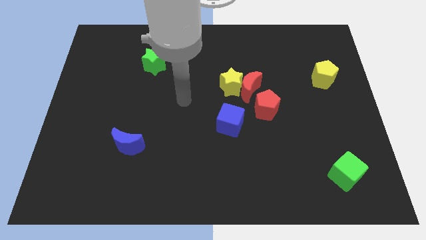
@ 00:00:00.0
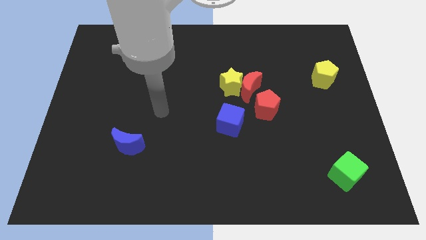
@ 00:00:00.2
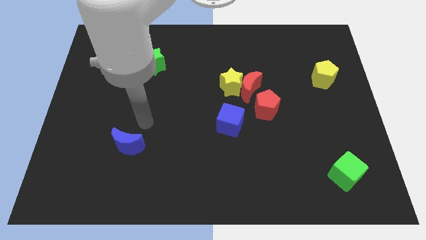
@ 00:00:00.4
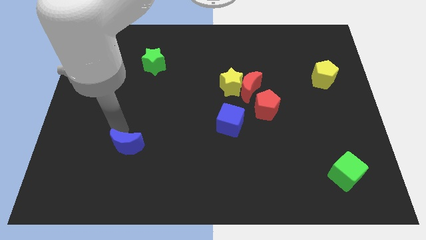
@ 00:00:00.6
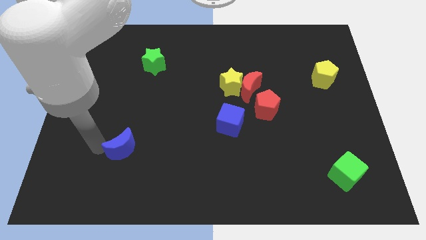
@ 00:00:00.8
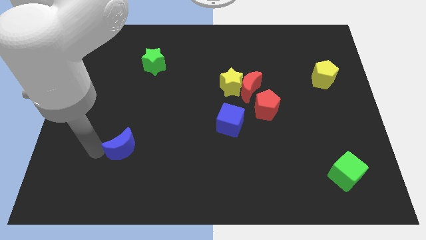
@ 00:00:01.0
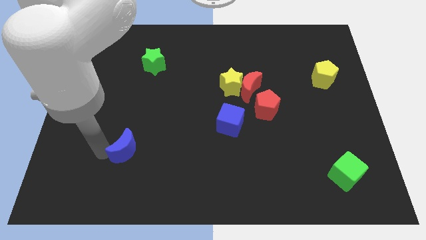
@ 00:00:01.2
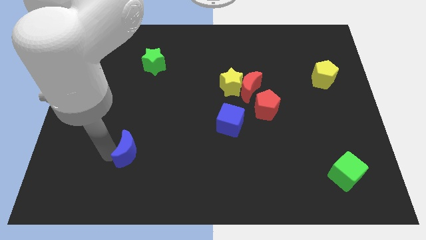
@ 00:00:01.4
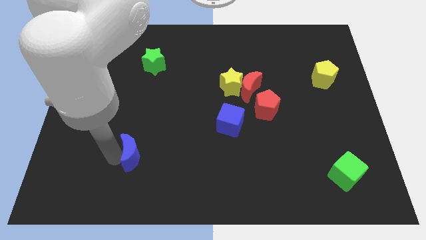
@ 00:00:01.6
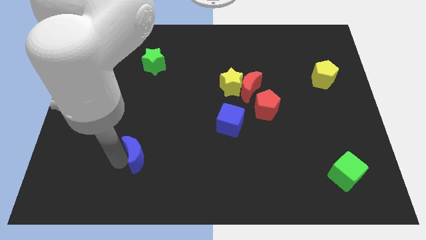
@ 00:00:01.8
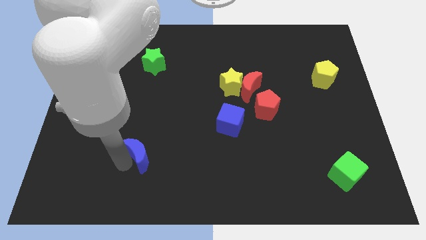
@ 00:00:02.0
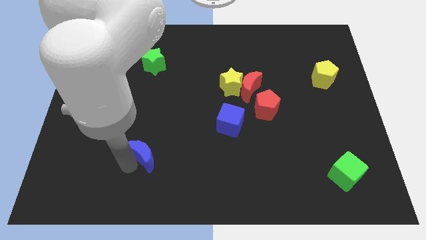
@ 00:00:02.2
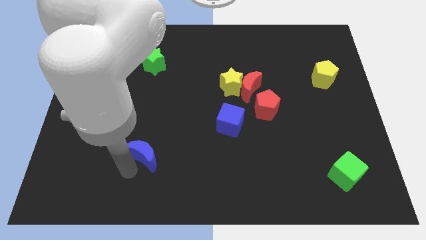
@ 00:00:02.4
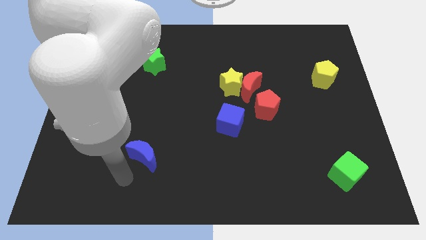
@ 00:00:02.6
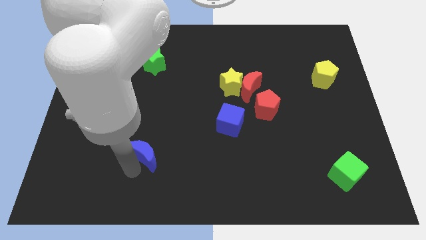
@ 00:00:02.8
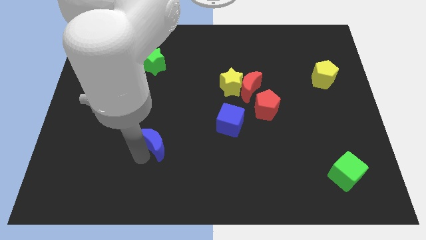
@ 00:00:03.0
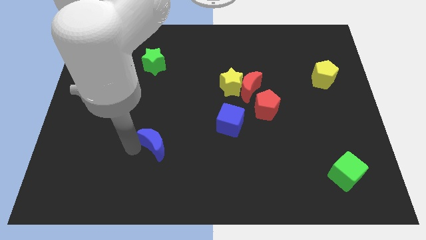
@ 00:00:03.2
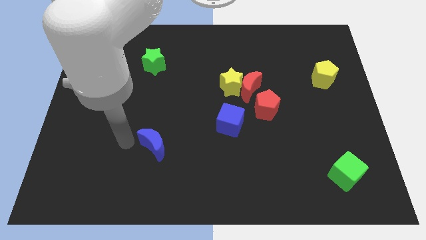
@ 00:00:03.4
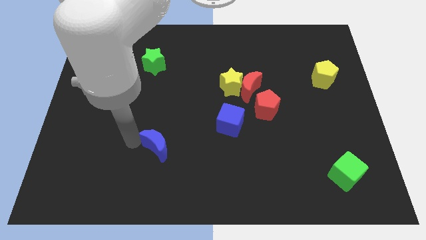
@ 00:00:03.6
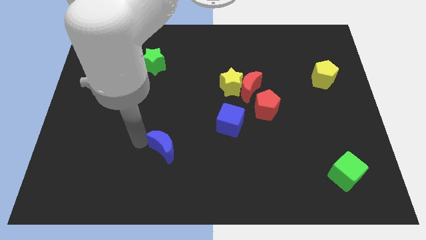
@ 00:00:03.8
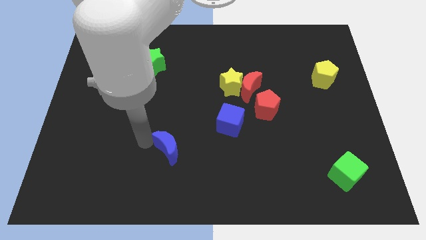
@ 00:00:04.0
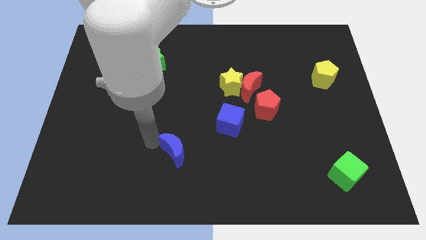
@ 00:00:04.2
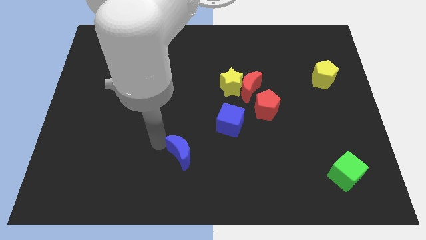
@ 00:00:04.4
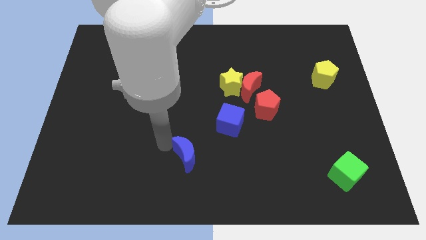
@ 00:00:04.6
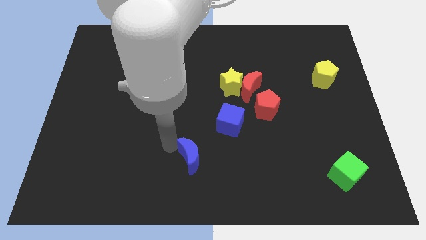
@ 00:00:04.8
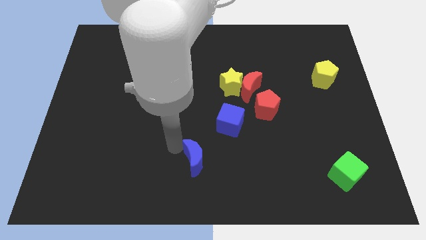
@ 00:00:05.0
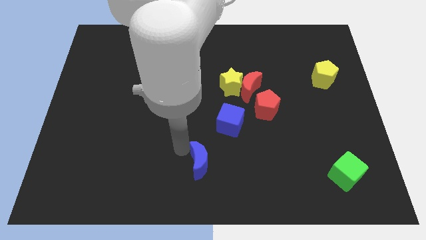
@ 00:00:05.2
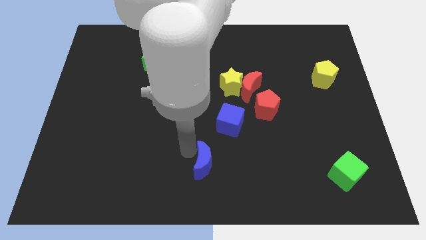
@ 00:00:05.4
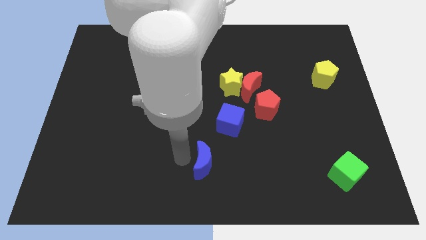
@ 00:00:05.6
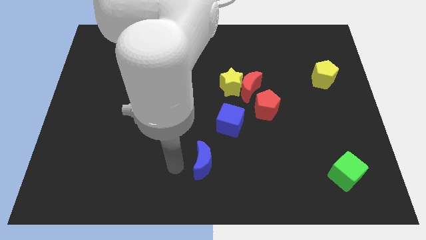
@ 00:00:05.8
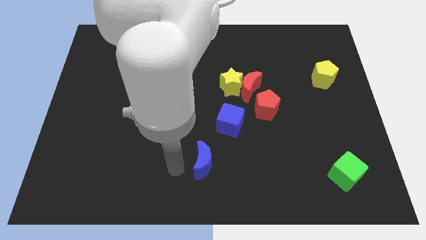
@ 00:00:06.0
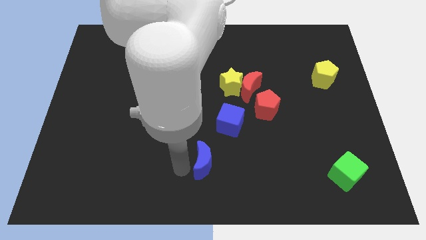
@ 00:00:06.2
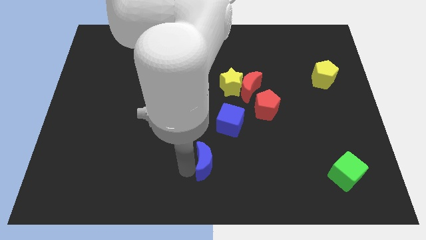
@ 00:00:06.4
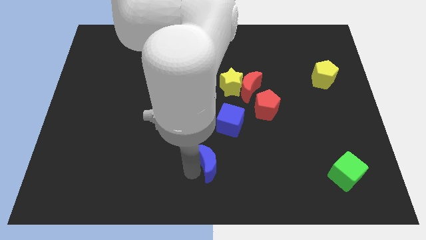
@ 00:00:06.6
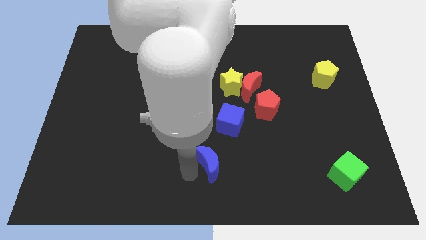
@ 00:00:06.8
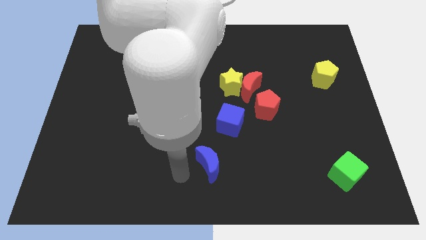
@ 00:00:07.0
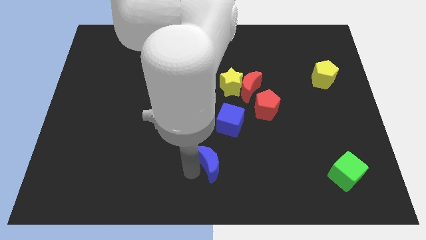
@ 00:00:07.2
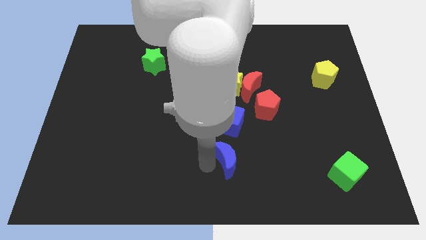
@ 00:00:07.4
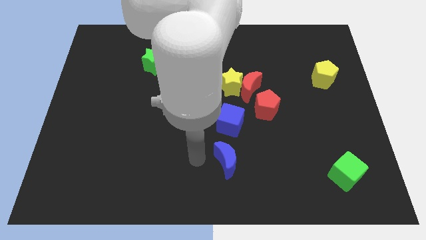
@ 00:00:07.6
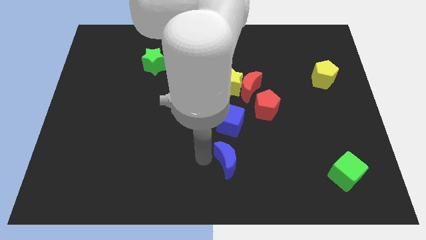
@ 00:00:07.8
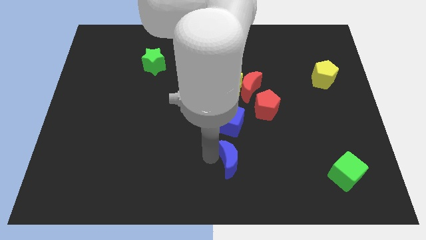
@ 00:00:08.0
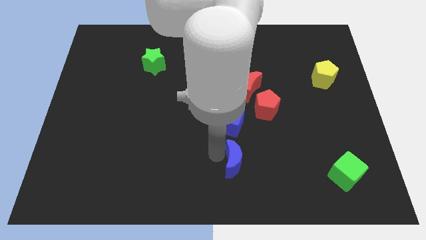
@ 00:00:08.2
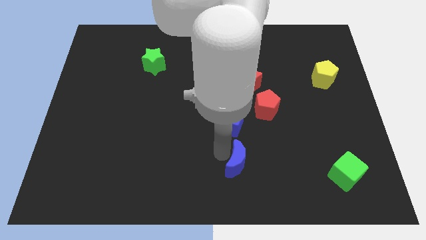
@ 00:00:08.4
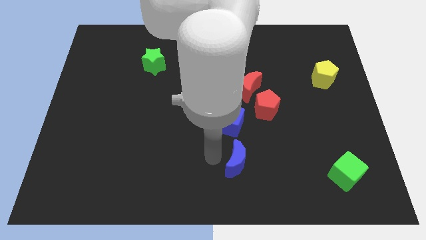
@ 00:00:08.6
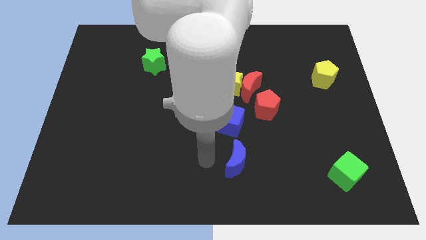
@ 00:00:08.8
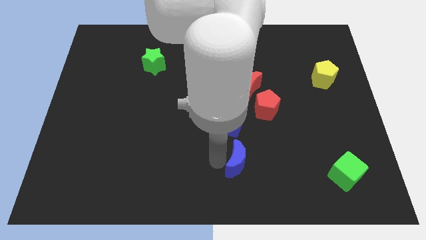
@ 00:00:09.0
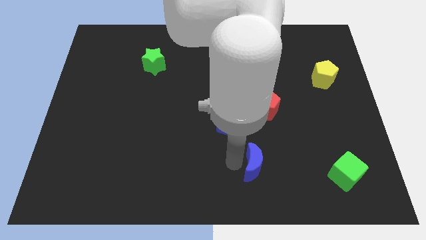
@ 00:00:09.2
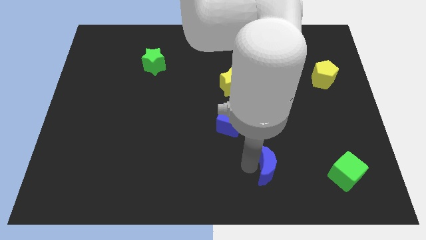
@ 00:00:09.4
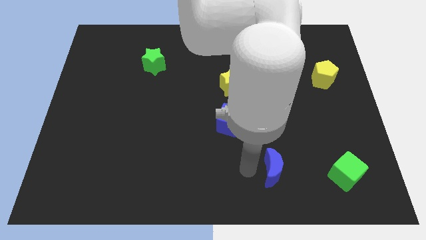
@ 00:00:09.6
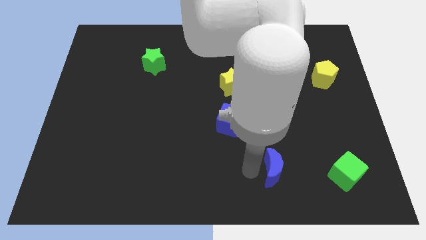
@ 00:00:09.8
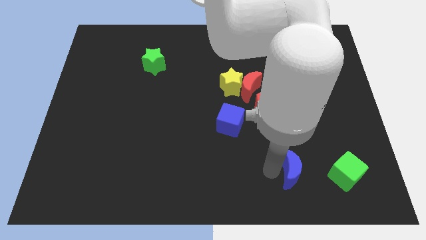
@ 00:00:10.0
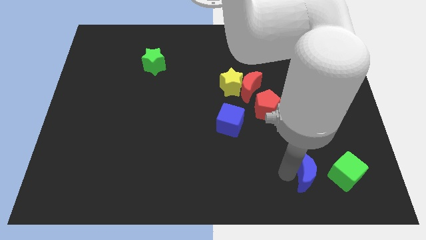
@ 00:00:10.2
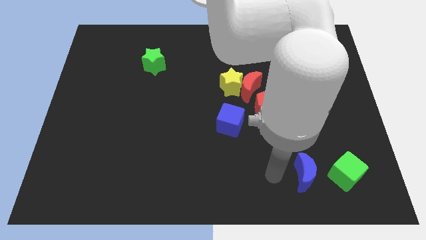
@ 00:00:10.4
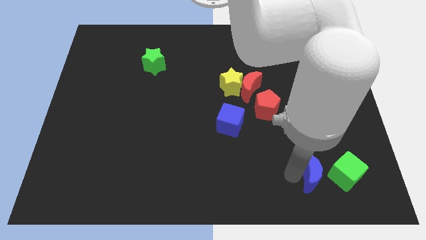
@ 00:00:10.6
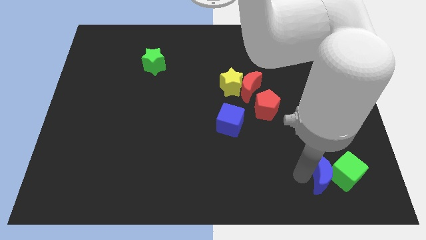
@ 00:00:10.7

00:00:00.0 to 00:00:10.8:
slide the blue moon next to the green cube

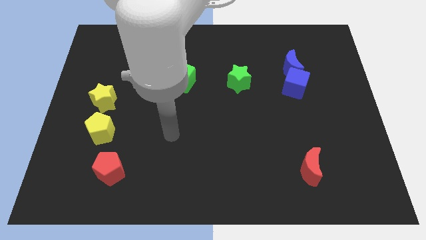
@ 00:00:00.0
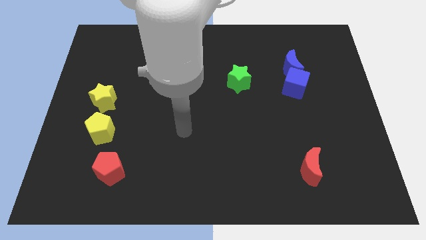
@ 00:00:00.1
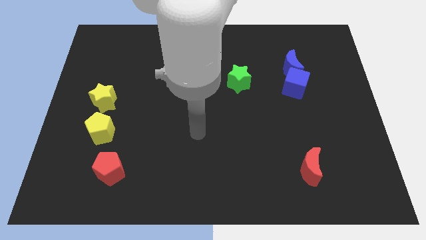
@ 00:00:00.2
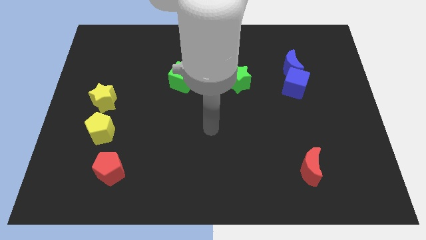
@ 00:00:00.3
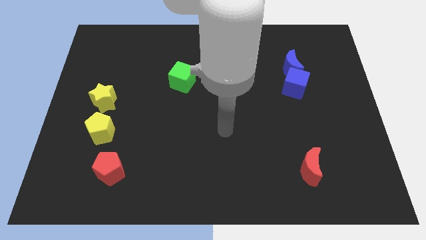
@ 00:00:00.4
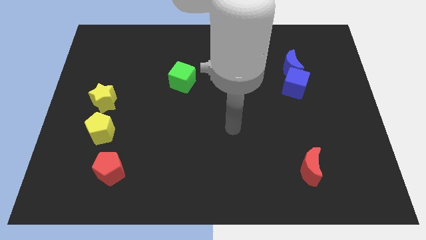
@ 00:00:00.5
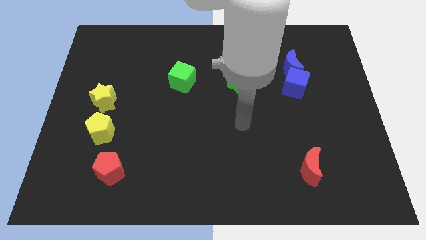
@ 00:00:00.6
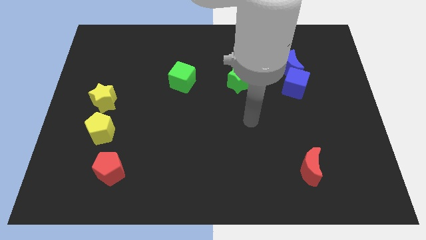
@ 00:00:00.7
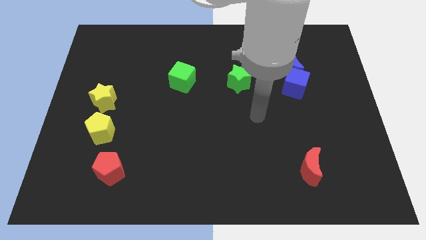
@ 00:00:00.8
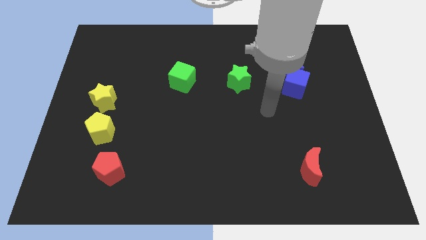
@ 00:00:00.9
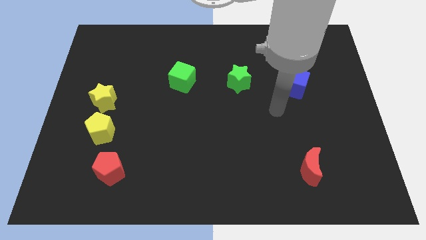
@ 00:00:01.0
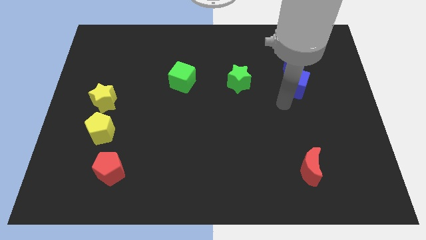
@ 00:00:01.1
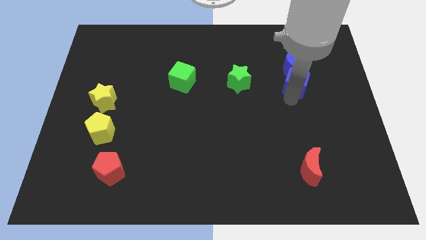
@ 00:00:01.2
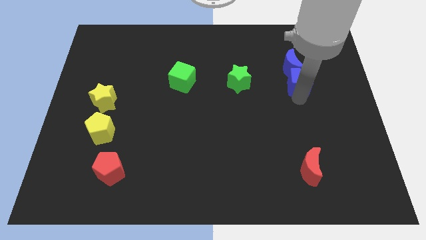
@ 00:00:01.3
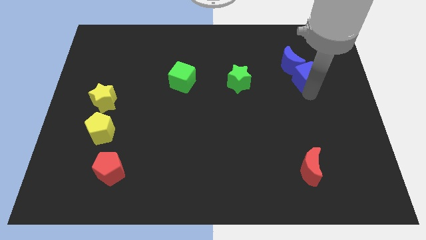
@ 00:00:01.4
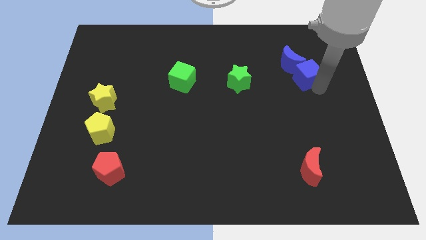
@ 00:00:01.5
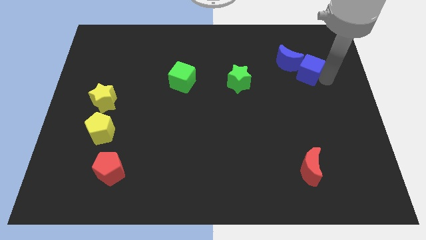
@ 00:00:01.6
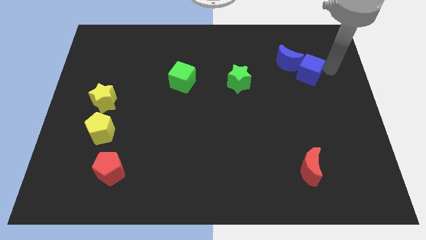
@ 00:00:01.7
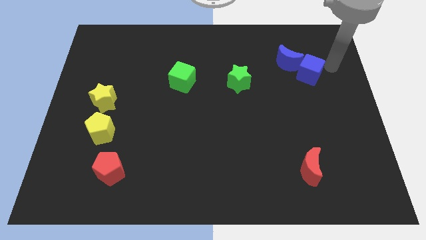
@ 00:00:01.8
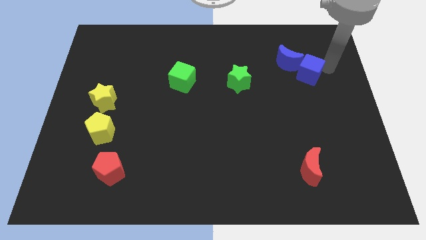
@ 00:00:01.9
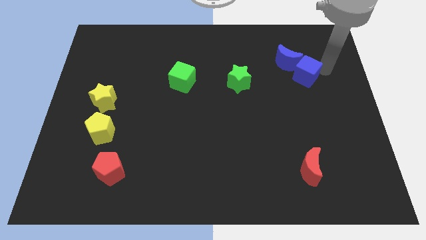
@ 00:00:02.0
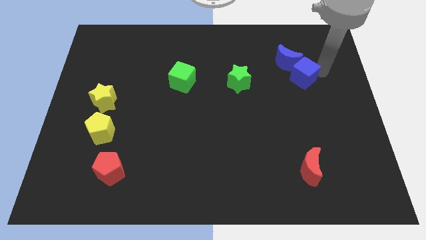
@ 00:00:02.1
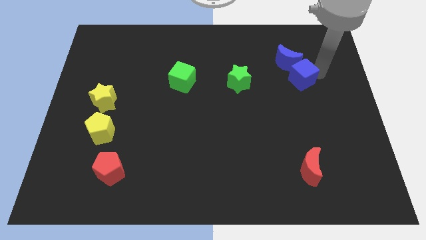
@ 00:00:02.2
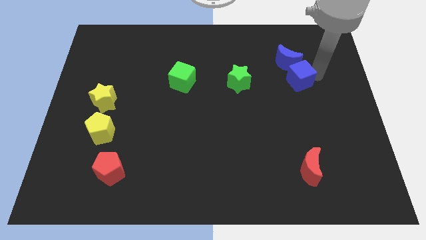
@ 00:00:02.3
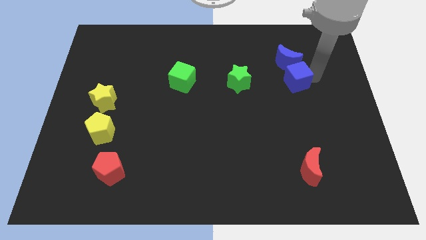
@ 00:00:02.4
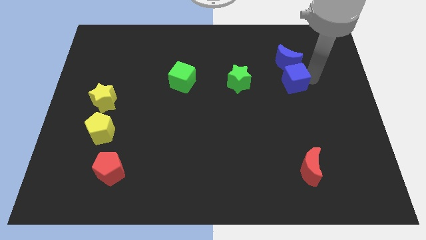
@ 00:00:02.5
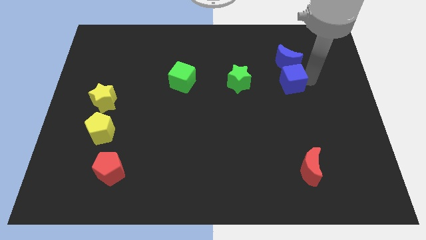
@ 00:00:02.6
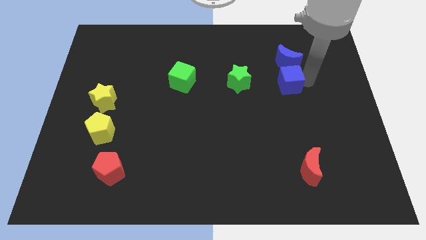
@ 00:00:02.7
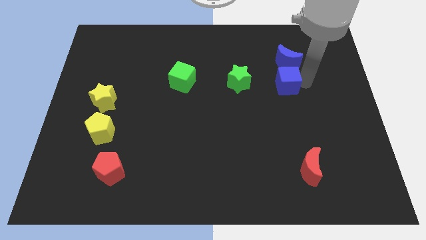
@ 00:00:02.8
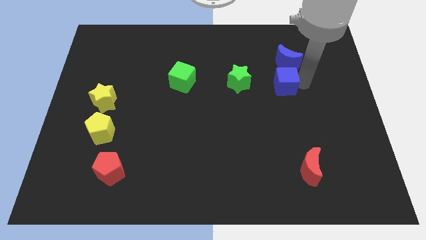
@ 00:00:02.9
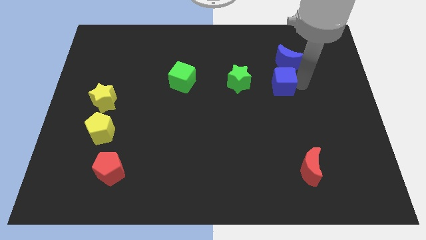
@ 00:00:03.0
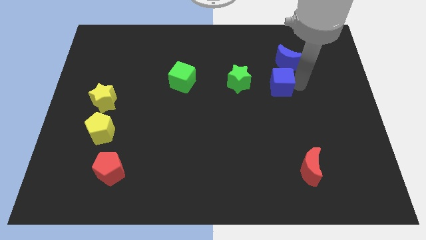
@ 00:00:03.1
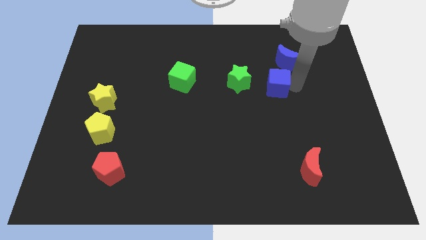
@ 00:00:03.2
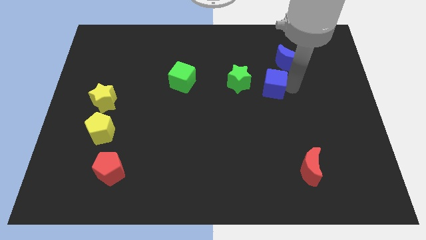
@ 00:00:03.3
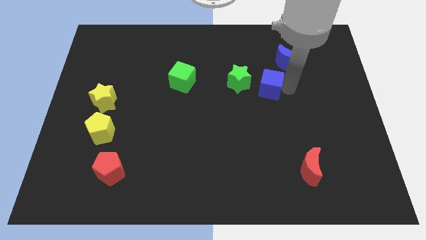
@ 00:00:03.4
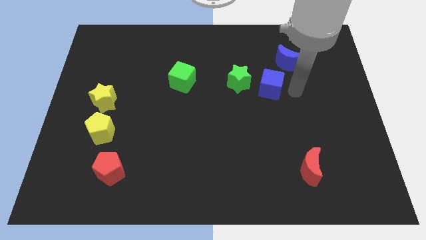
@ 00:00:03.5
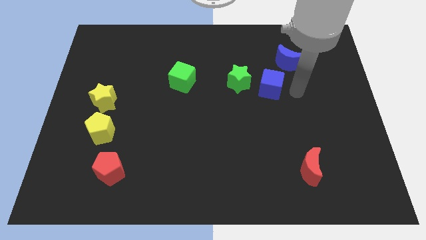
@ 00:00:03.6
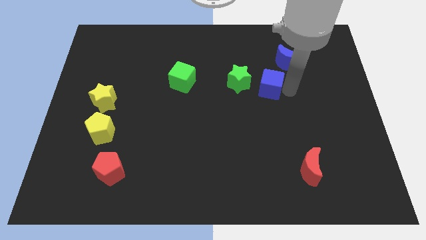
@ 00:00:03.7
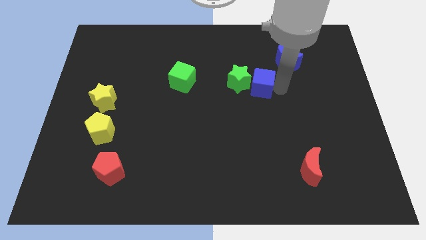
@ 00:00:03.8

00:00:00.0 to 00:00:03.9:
put the blue cube towards the green star
